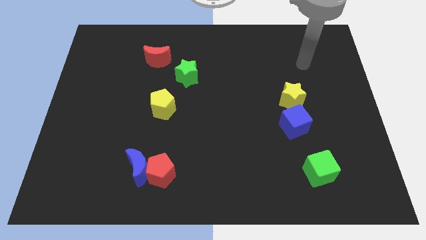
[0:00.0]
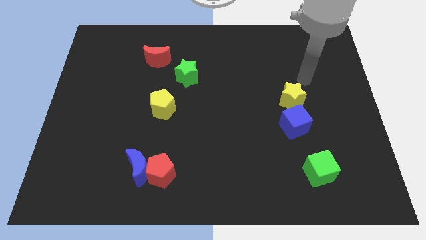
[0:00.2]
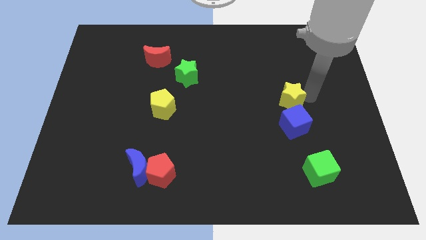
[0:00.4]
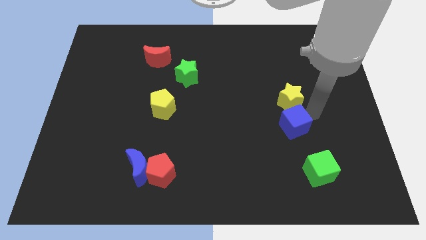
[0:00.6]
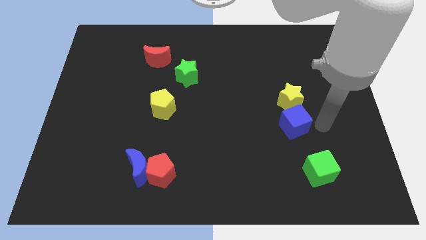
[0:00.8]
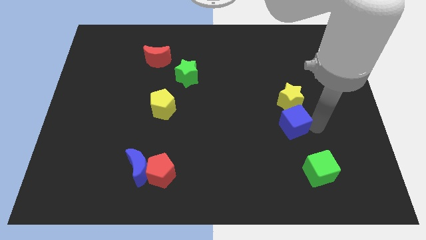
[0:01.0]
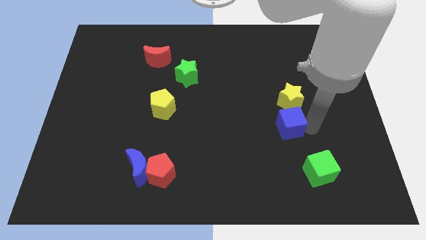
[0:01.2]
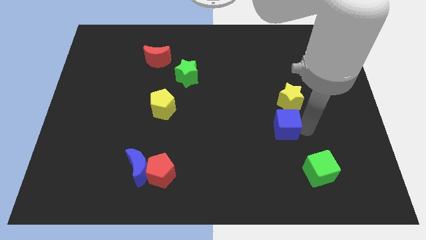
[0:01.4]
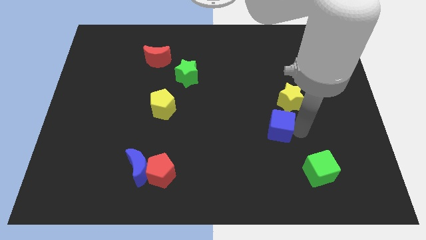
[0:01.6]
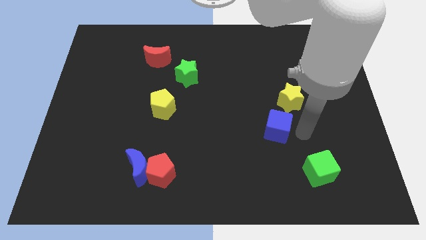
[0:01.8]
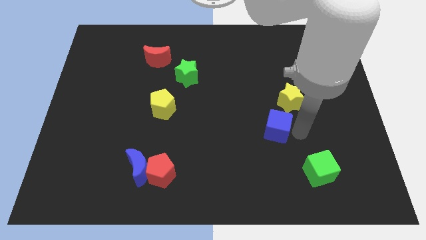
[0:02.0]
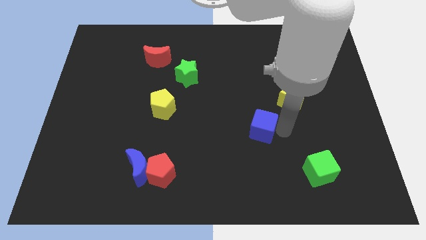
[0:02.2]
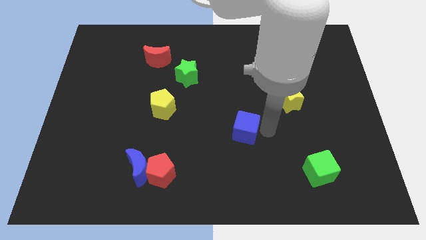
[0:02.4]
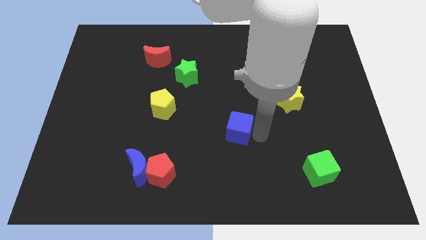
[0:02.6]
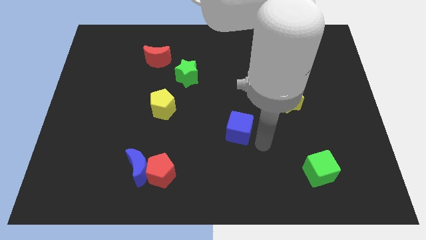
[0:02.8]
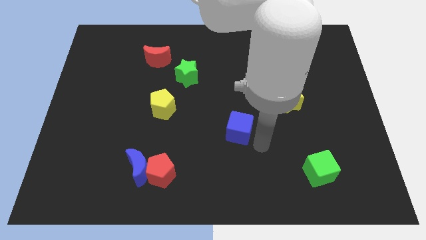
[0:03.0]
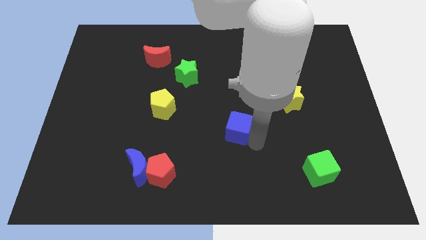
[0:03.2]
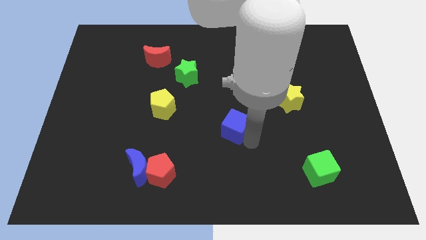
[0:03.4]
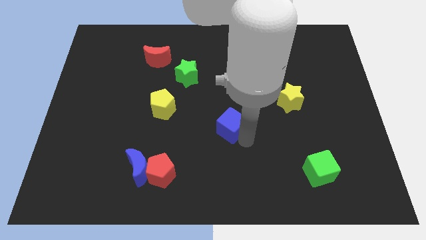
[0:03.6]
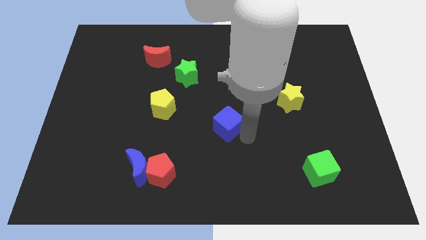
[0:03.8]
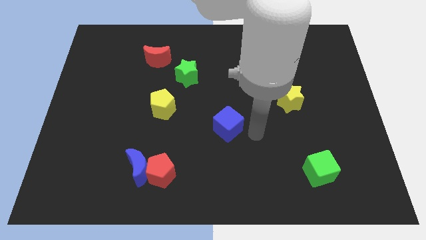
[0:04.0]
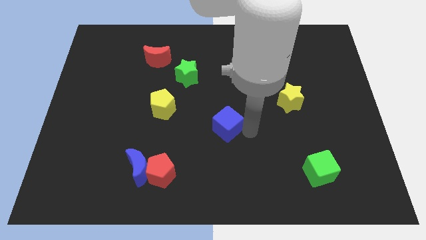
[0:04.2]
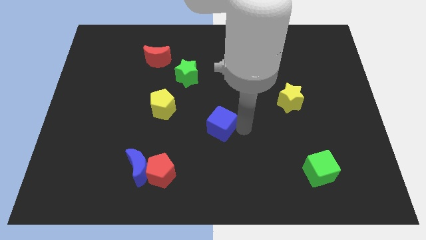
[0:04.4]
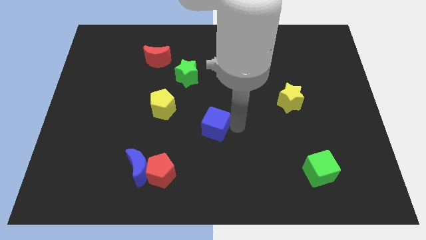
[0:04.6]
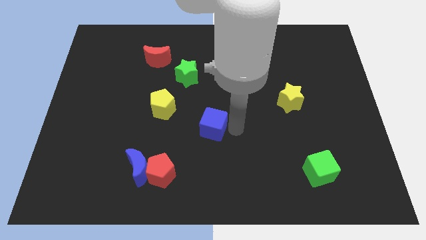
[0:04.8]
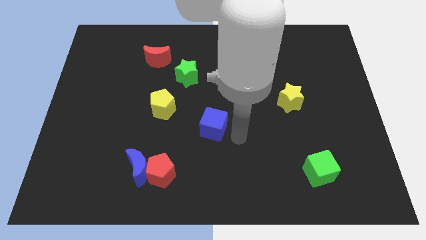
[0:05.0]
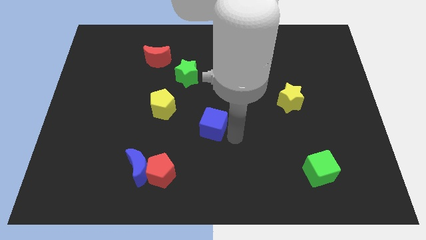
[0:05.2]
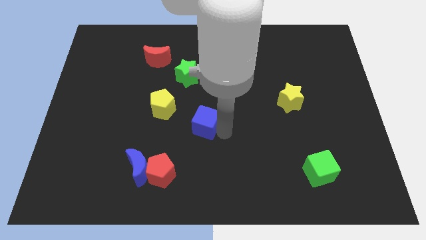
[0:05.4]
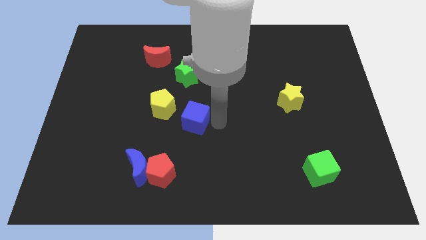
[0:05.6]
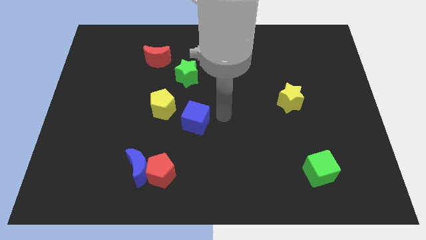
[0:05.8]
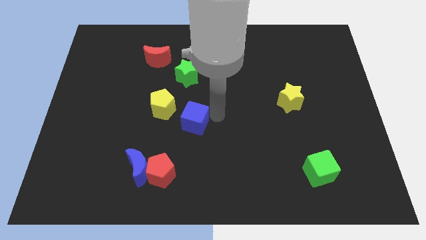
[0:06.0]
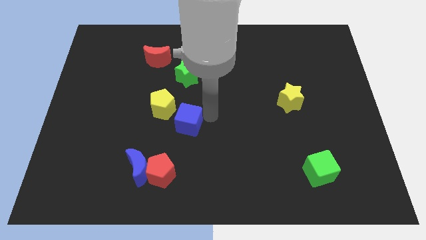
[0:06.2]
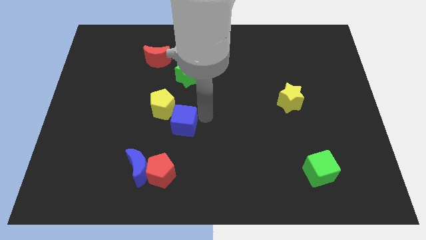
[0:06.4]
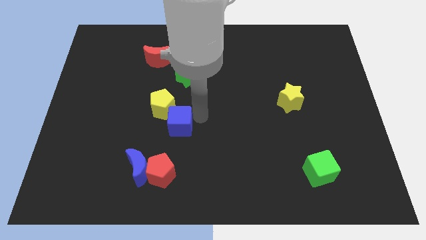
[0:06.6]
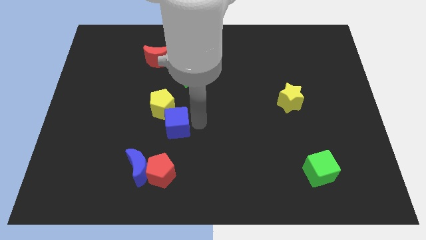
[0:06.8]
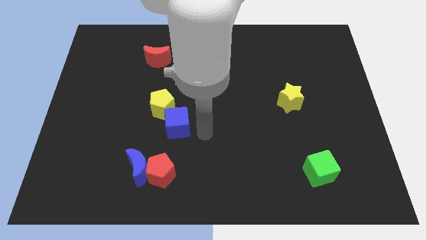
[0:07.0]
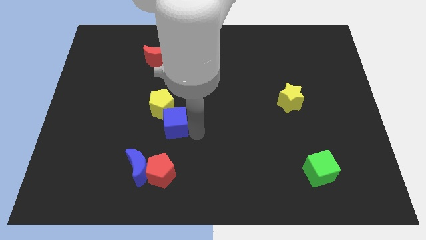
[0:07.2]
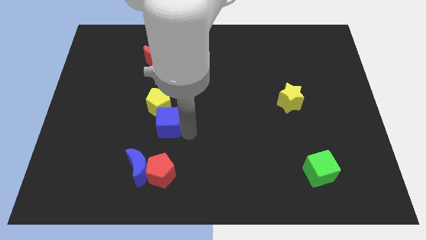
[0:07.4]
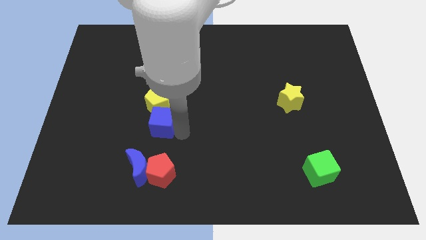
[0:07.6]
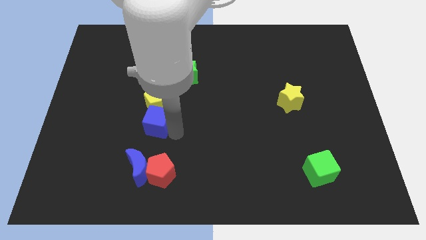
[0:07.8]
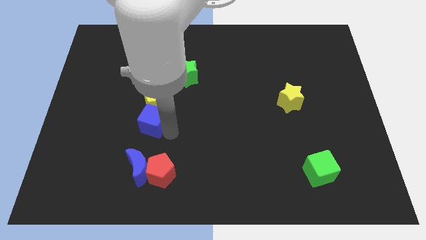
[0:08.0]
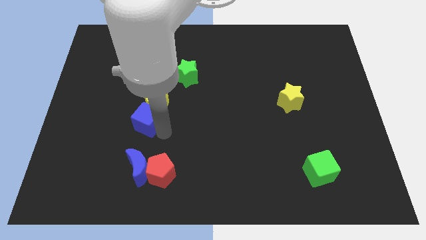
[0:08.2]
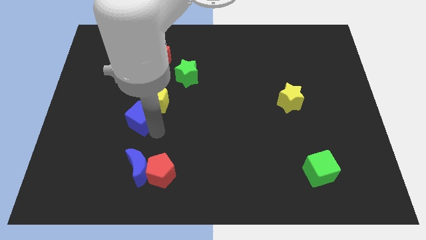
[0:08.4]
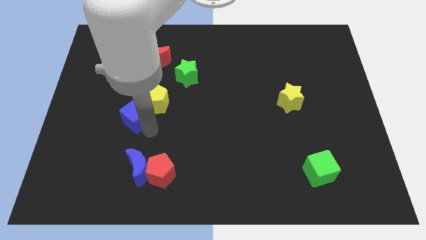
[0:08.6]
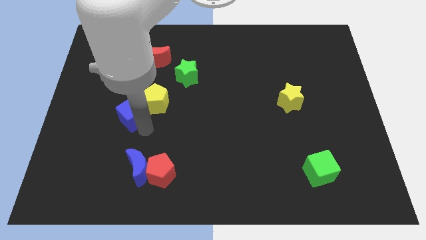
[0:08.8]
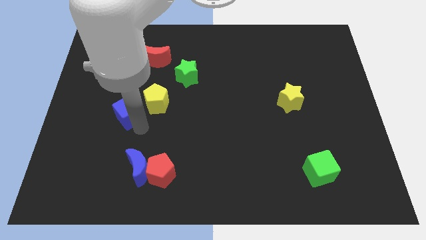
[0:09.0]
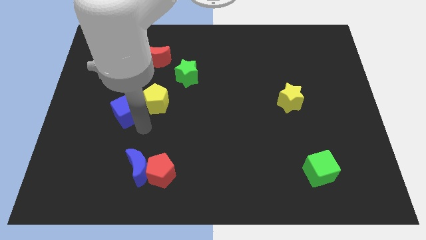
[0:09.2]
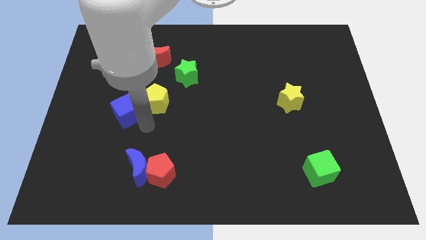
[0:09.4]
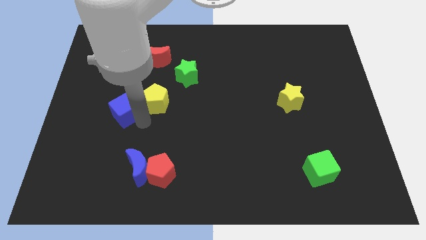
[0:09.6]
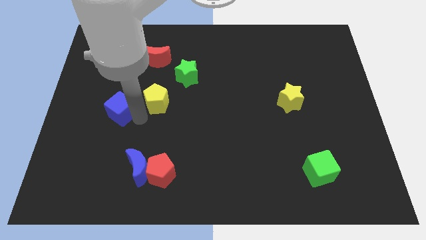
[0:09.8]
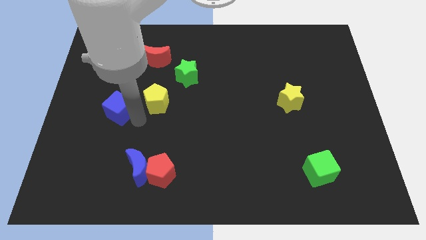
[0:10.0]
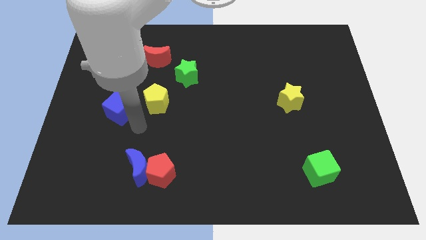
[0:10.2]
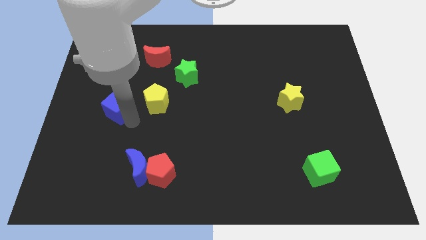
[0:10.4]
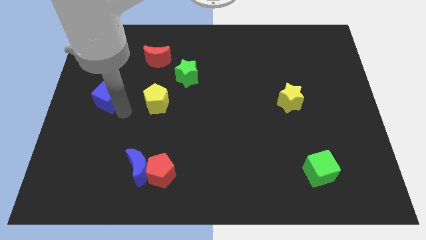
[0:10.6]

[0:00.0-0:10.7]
put the blue cube to the left side

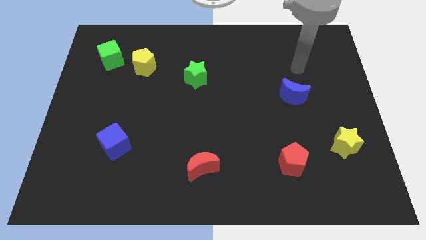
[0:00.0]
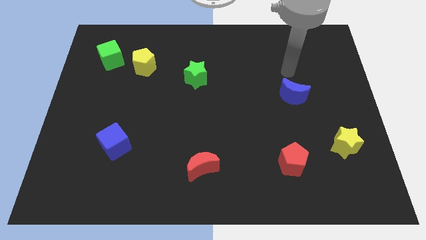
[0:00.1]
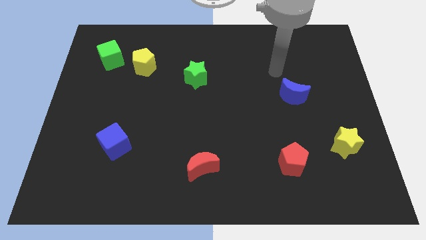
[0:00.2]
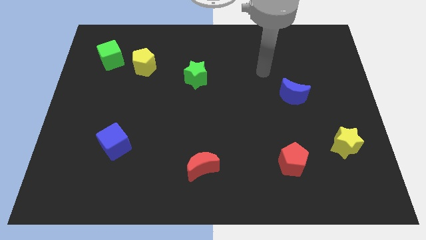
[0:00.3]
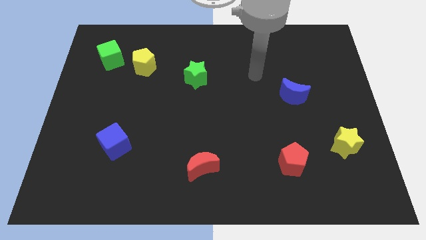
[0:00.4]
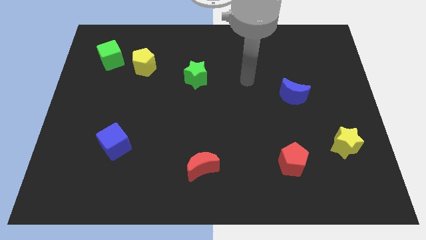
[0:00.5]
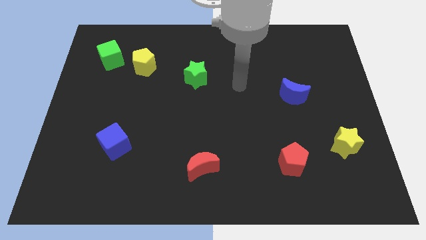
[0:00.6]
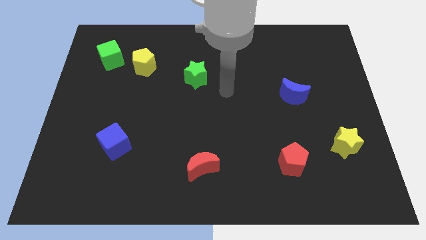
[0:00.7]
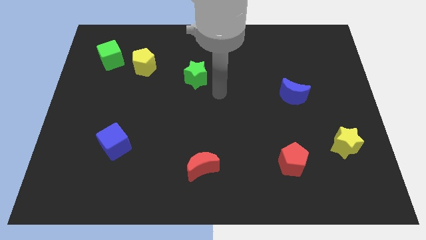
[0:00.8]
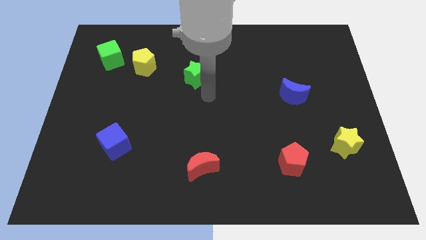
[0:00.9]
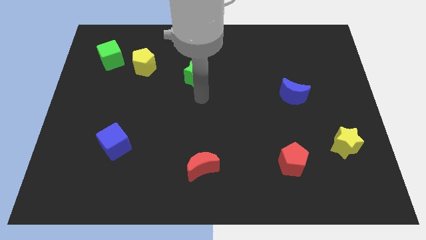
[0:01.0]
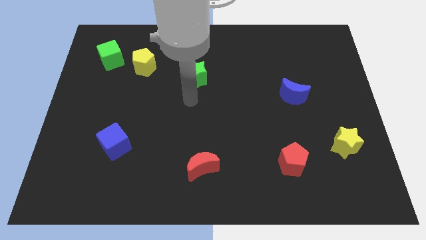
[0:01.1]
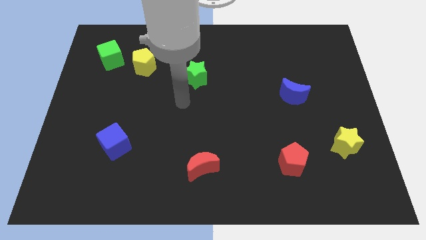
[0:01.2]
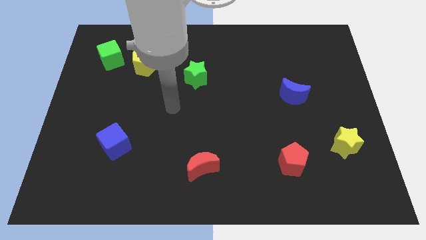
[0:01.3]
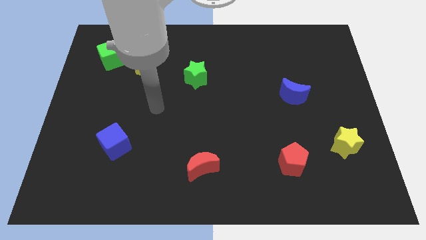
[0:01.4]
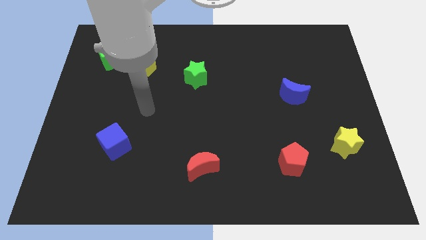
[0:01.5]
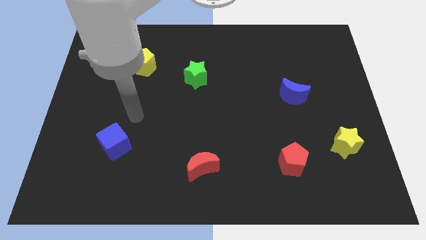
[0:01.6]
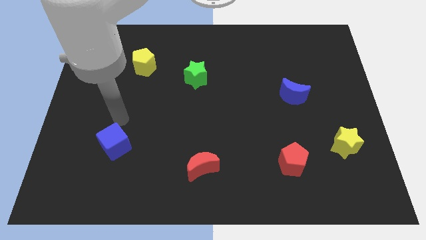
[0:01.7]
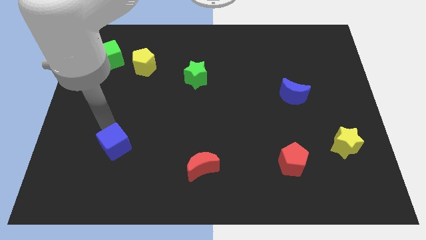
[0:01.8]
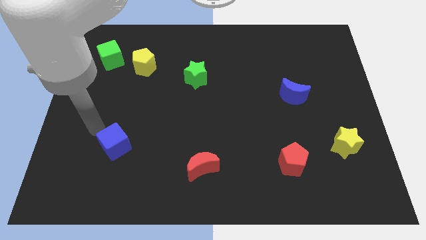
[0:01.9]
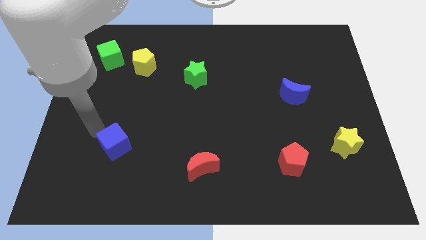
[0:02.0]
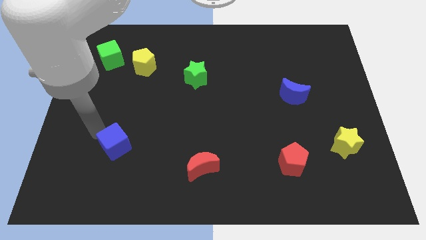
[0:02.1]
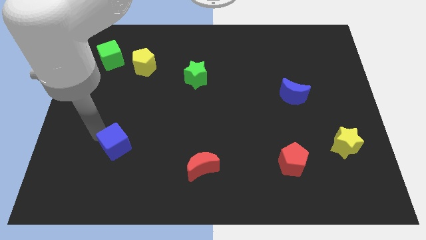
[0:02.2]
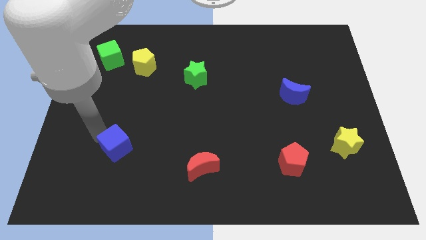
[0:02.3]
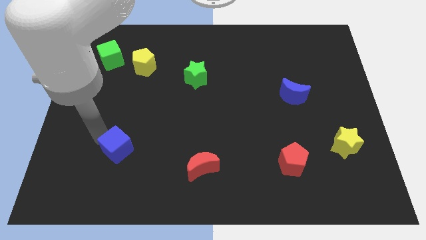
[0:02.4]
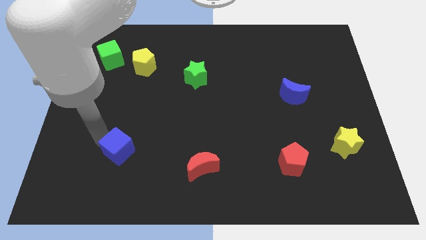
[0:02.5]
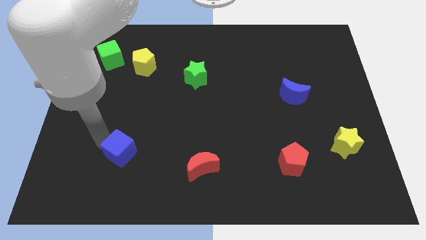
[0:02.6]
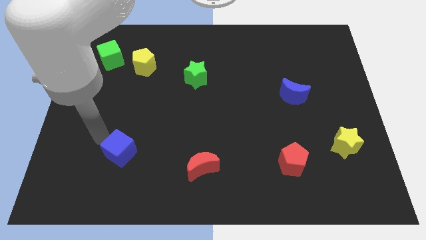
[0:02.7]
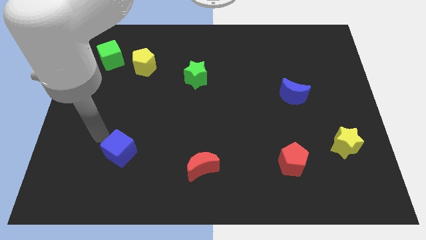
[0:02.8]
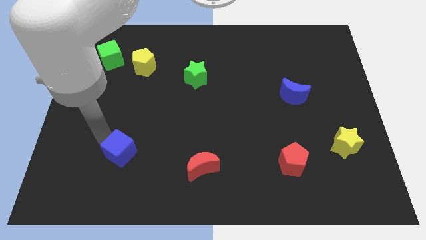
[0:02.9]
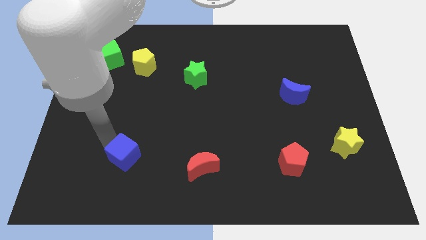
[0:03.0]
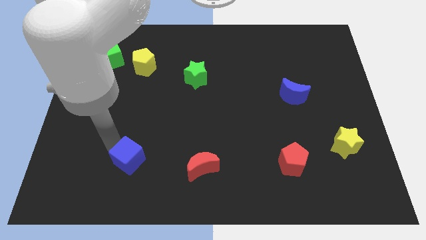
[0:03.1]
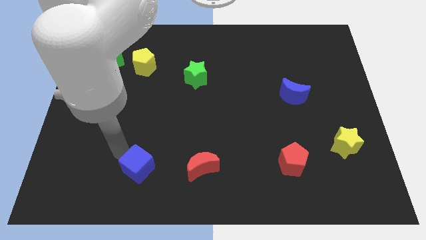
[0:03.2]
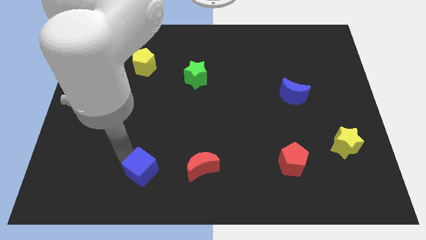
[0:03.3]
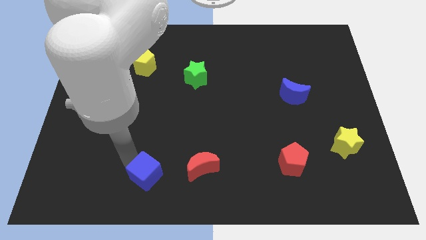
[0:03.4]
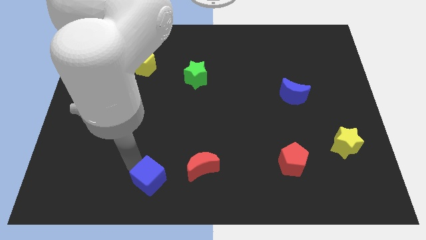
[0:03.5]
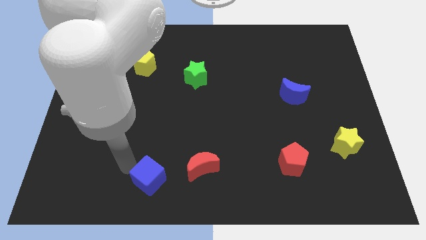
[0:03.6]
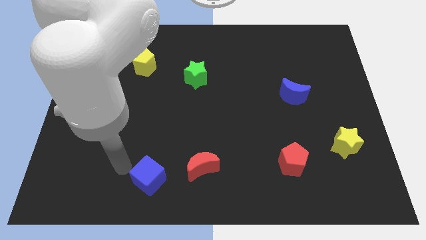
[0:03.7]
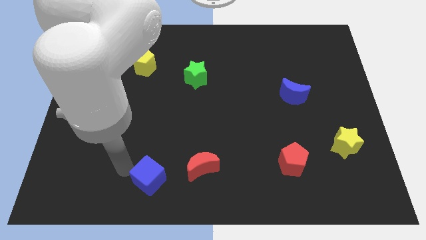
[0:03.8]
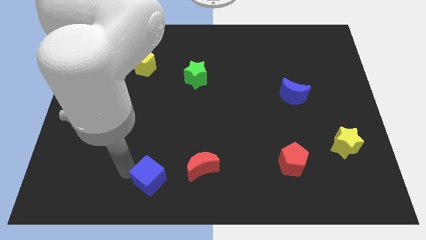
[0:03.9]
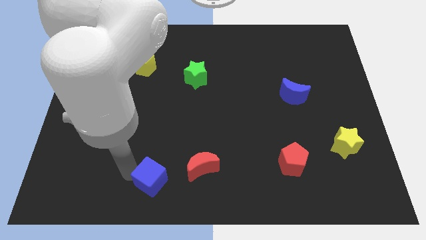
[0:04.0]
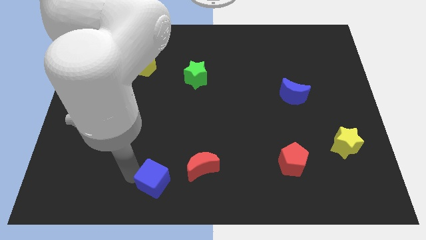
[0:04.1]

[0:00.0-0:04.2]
move the blue cube to the bottom side
